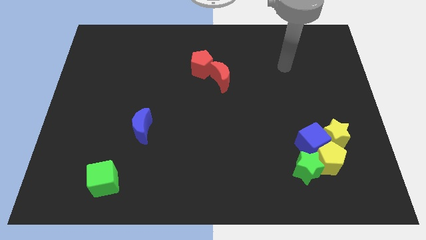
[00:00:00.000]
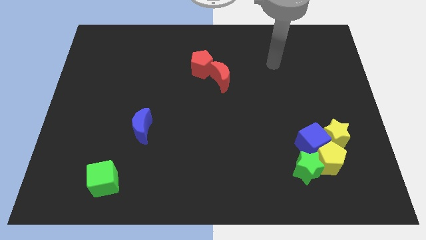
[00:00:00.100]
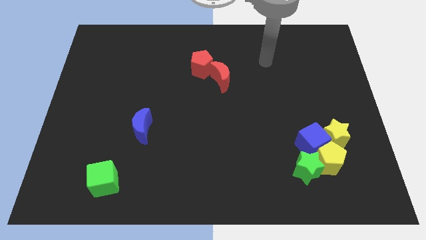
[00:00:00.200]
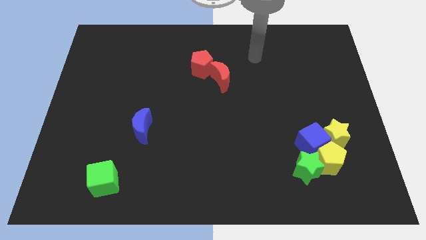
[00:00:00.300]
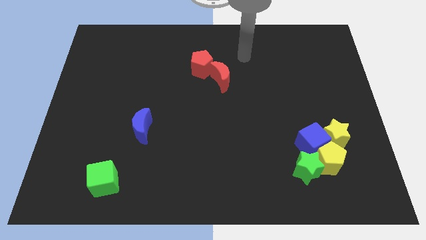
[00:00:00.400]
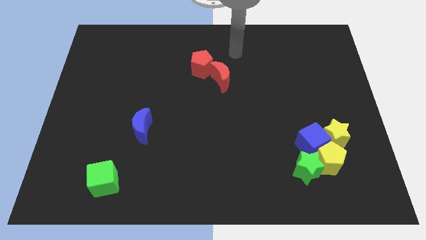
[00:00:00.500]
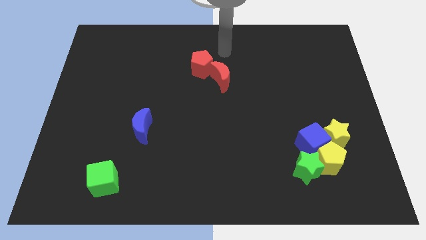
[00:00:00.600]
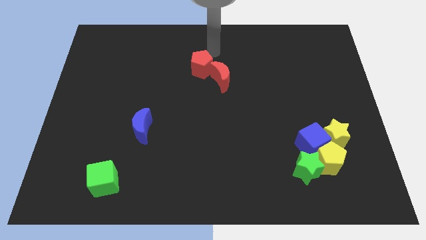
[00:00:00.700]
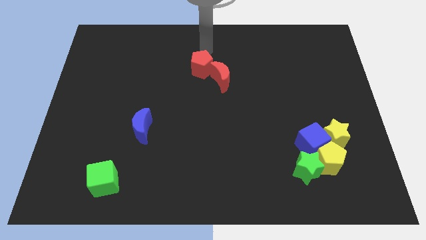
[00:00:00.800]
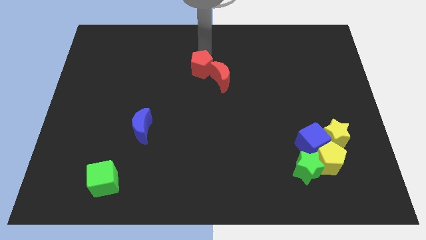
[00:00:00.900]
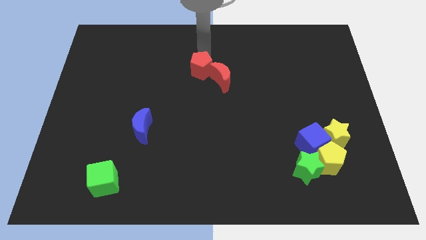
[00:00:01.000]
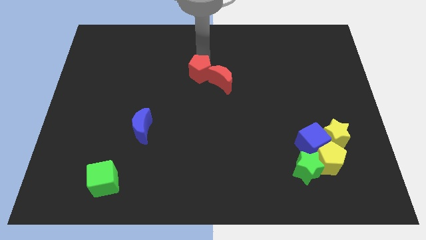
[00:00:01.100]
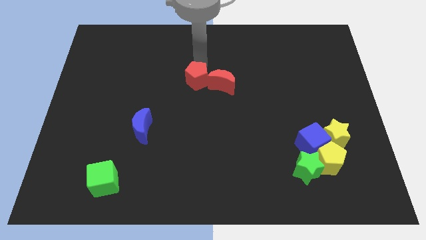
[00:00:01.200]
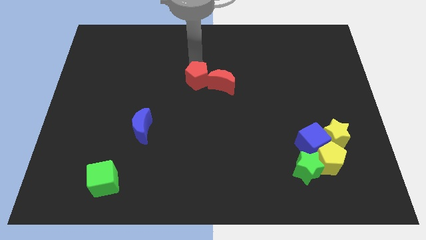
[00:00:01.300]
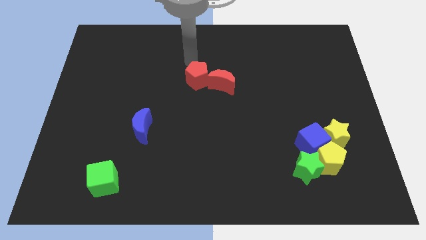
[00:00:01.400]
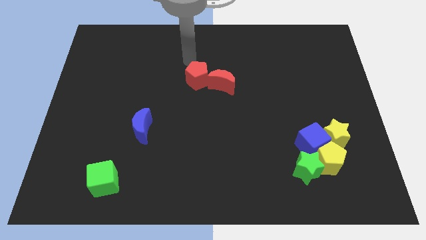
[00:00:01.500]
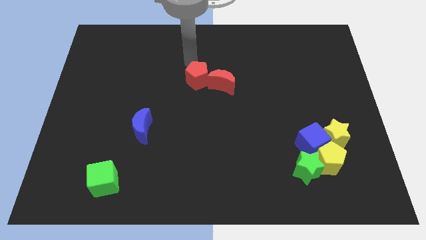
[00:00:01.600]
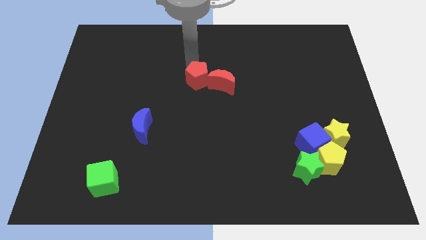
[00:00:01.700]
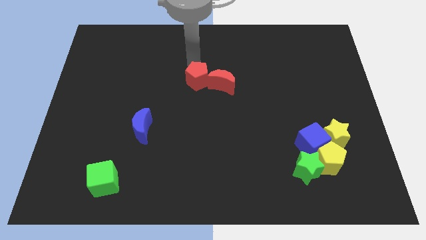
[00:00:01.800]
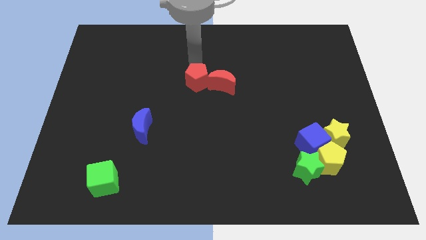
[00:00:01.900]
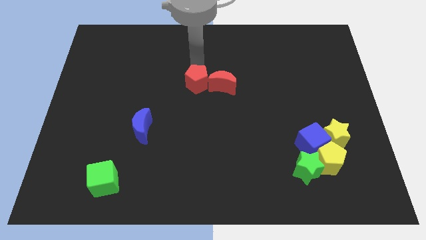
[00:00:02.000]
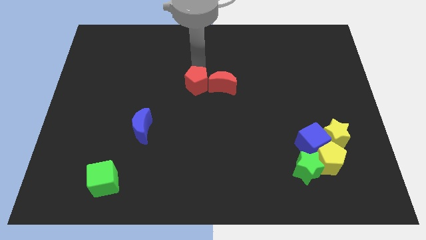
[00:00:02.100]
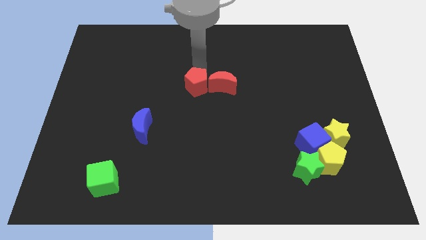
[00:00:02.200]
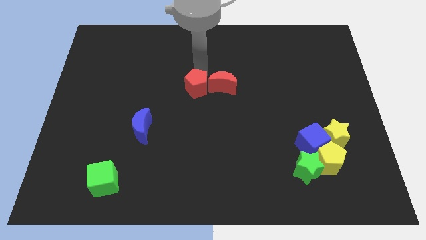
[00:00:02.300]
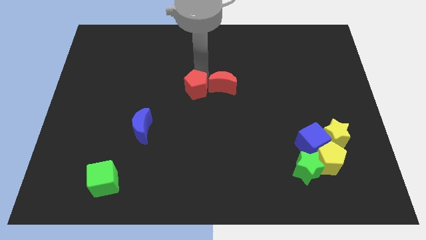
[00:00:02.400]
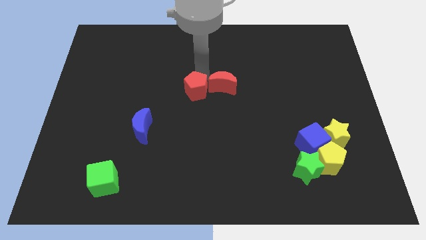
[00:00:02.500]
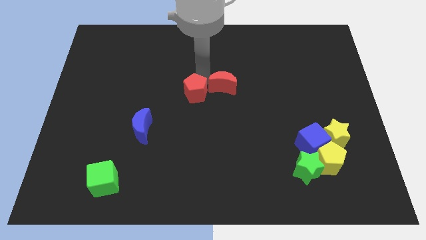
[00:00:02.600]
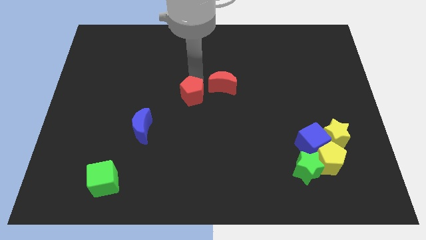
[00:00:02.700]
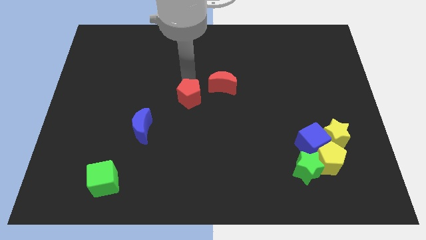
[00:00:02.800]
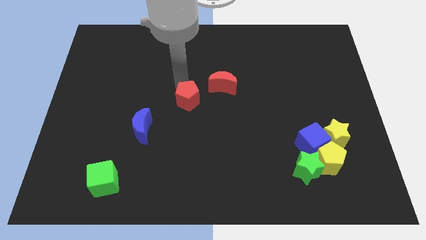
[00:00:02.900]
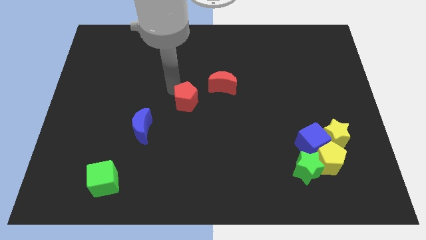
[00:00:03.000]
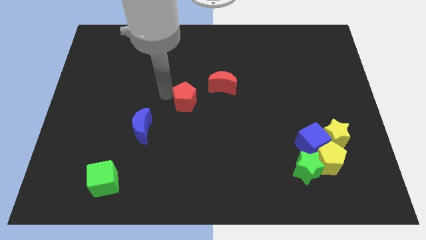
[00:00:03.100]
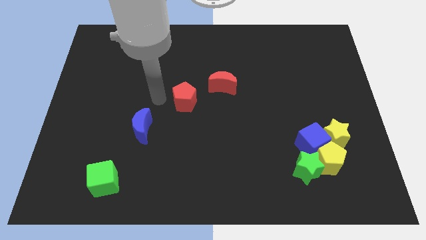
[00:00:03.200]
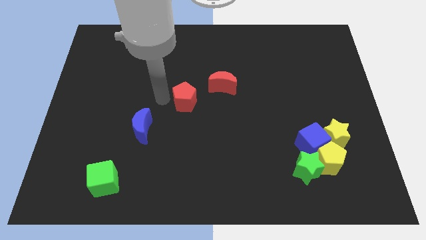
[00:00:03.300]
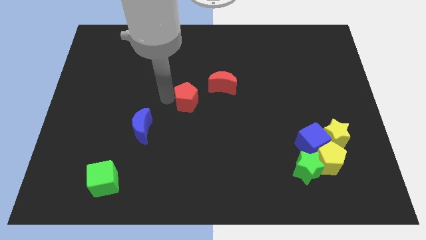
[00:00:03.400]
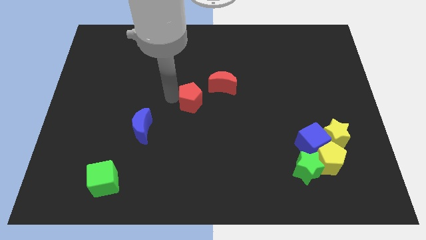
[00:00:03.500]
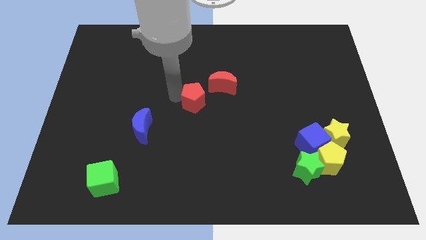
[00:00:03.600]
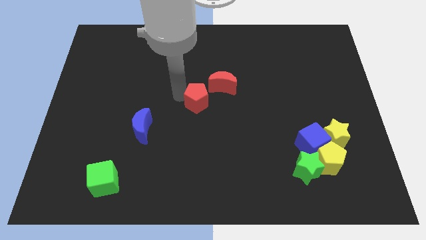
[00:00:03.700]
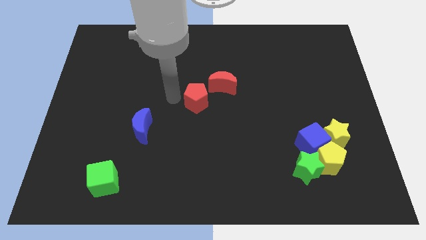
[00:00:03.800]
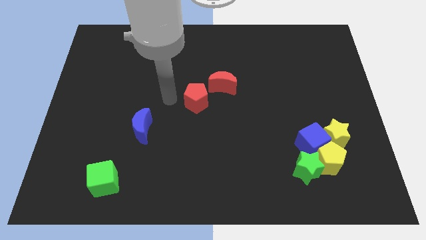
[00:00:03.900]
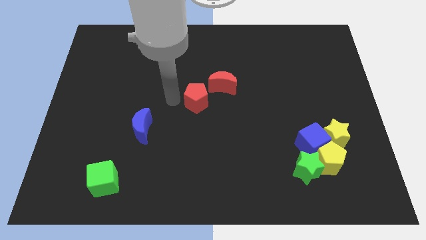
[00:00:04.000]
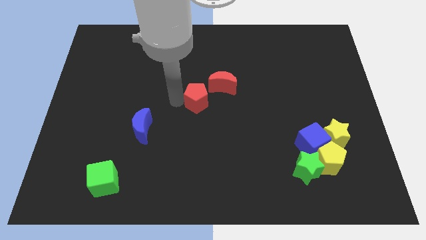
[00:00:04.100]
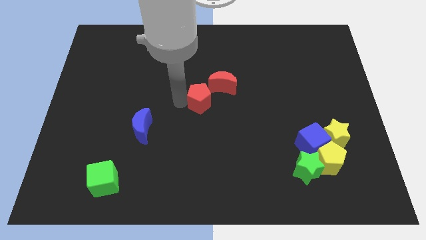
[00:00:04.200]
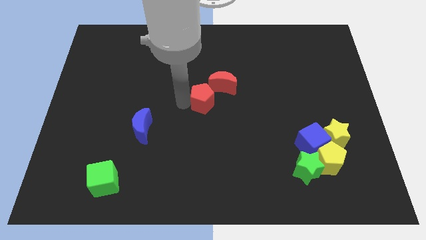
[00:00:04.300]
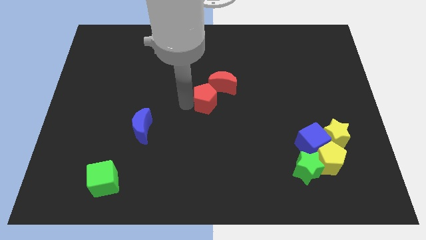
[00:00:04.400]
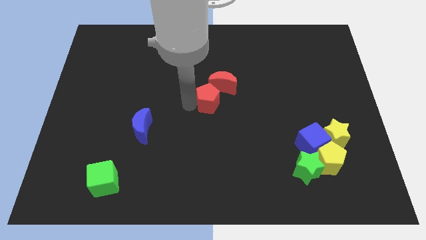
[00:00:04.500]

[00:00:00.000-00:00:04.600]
slightly move the red pentagon downwards and right diagonally

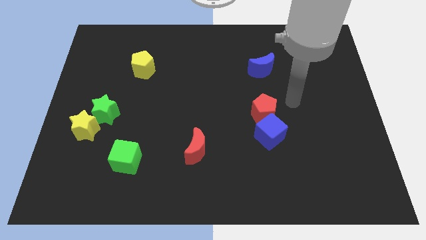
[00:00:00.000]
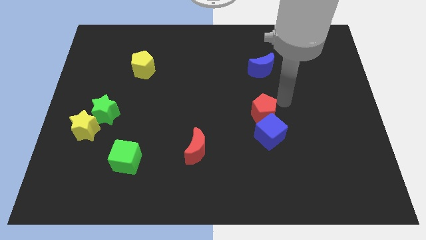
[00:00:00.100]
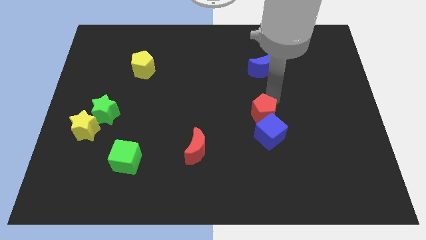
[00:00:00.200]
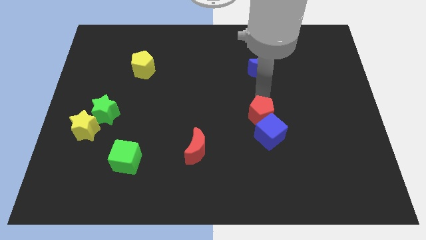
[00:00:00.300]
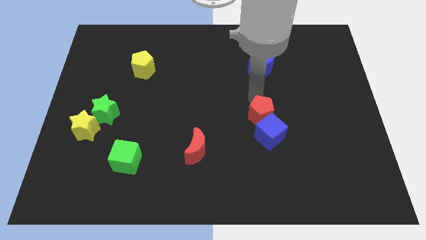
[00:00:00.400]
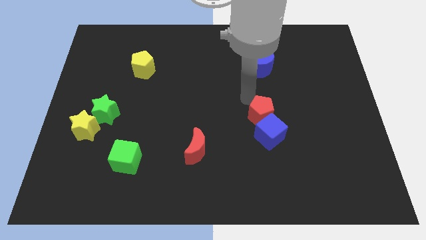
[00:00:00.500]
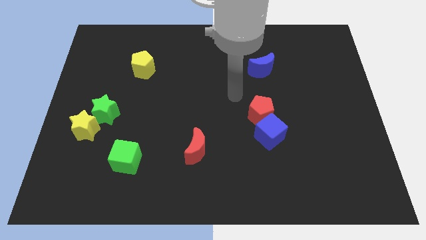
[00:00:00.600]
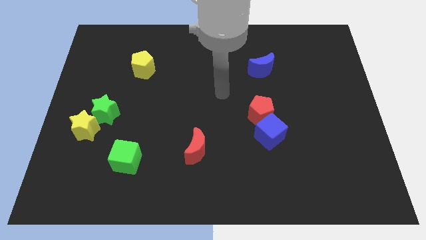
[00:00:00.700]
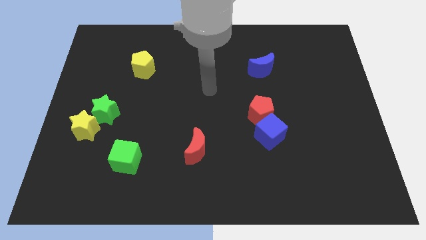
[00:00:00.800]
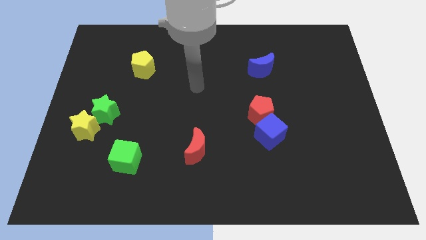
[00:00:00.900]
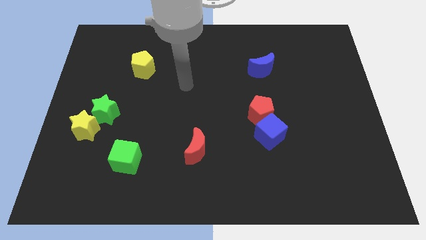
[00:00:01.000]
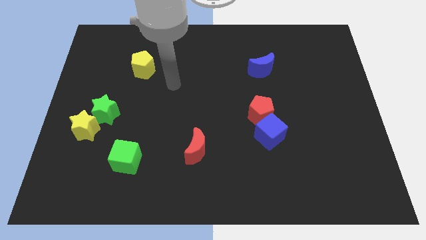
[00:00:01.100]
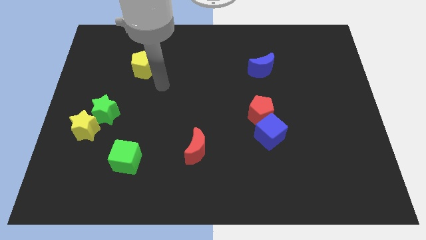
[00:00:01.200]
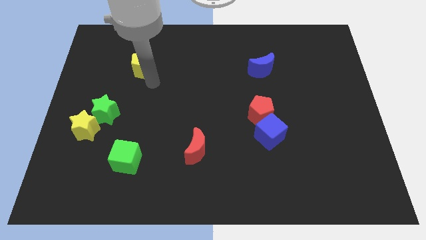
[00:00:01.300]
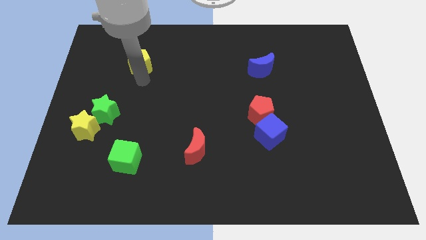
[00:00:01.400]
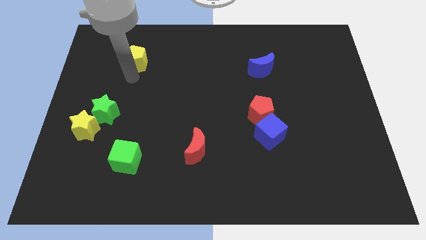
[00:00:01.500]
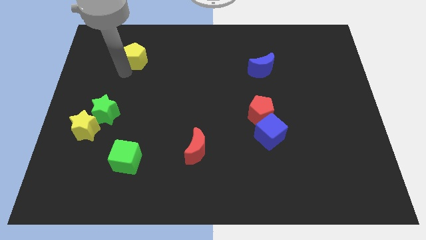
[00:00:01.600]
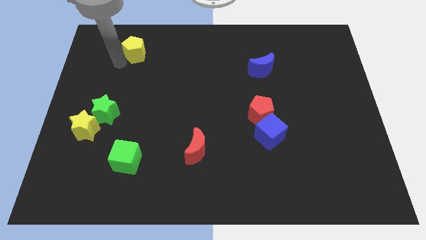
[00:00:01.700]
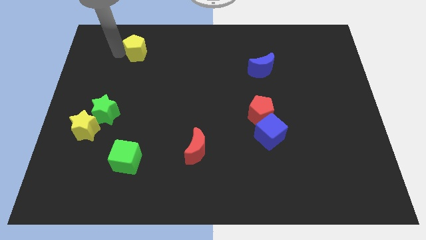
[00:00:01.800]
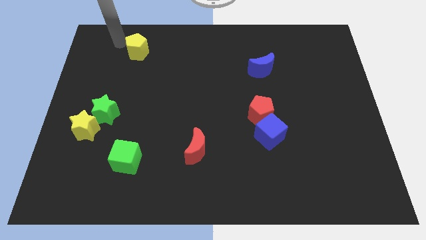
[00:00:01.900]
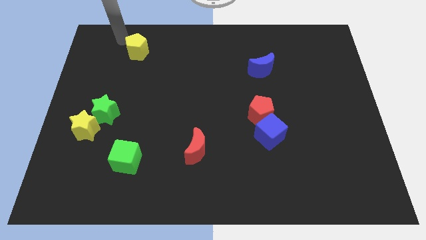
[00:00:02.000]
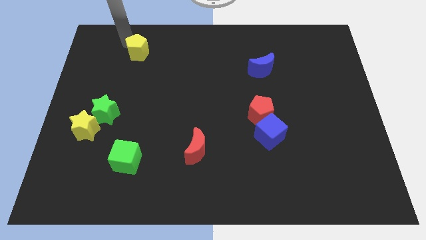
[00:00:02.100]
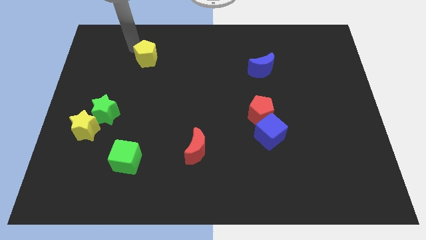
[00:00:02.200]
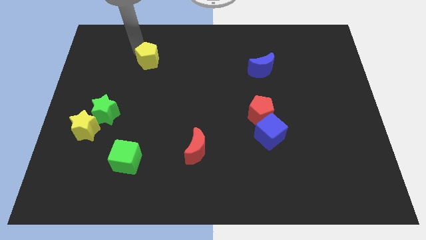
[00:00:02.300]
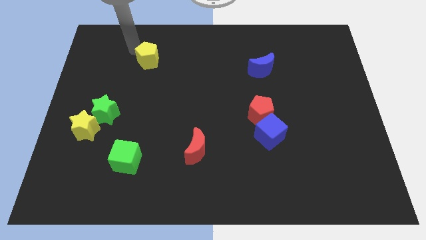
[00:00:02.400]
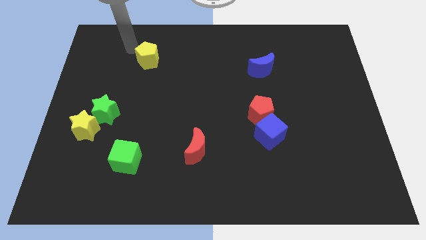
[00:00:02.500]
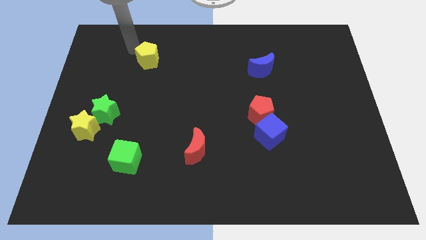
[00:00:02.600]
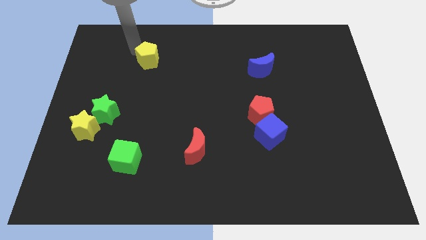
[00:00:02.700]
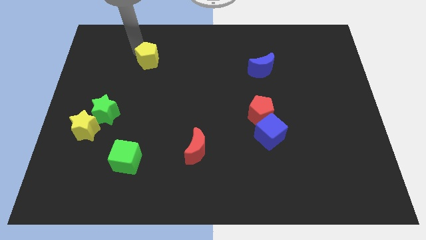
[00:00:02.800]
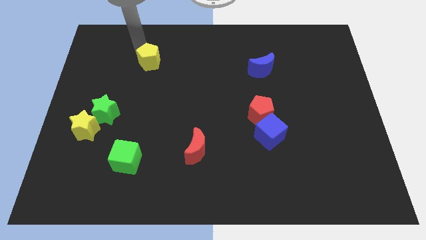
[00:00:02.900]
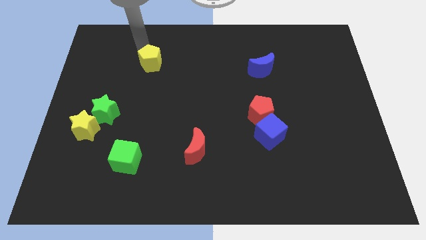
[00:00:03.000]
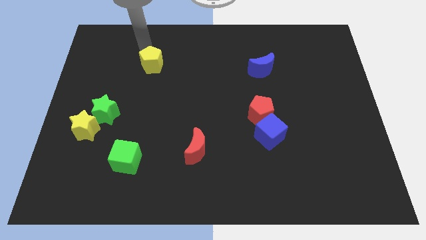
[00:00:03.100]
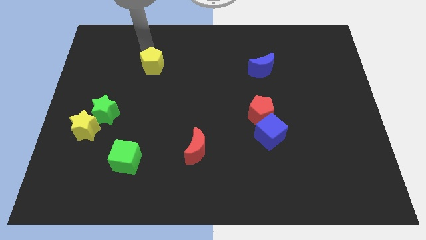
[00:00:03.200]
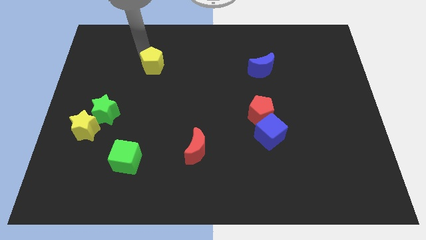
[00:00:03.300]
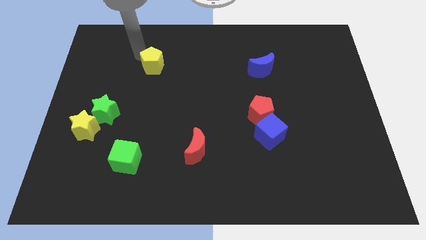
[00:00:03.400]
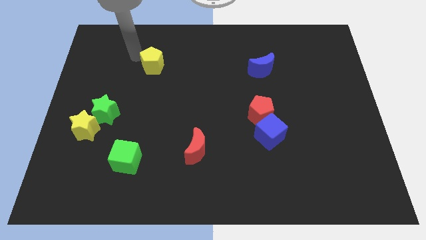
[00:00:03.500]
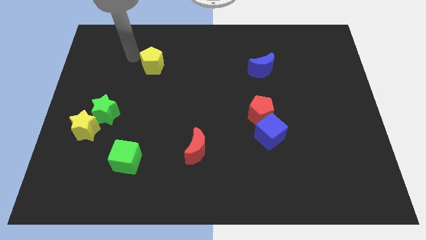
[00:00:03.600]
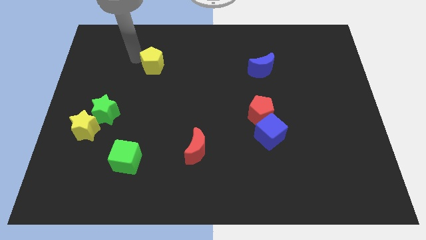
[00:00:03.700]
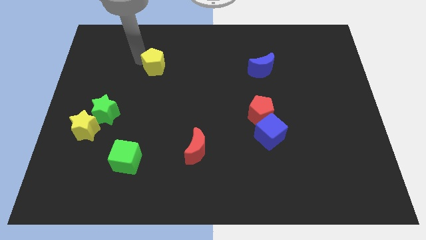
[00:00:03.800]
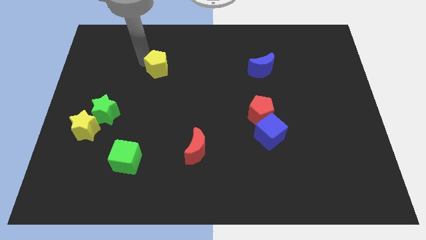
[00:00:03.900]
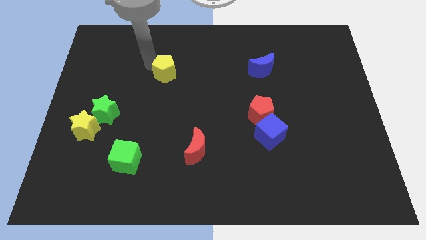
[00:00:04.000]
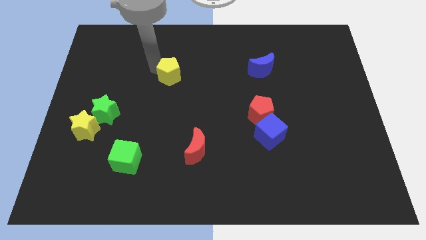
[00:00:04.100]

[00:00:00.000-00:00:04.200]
slightly move the yellow pentagon right
